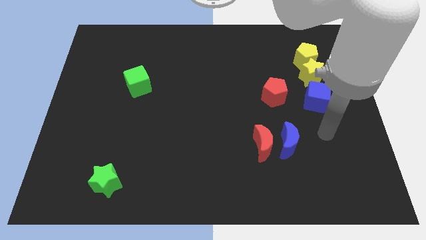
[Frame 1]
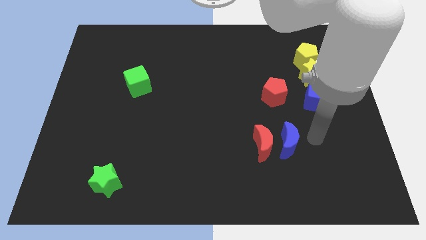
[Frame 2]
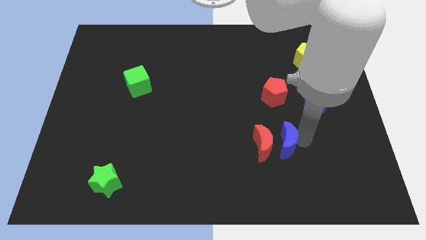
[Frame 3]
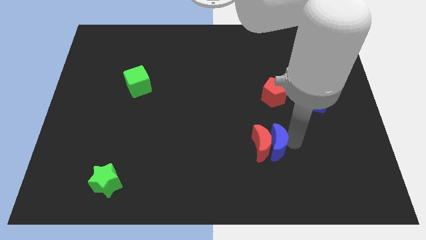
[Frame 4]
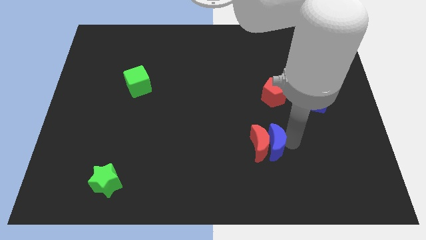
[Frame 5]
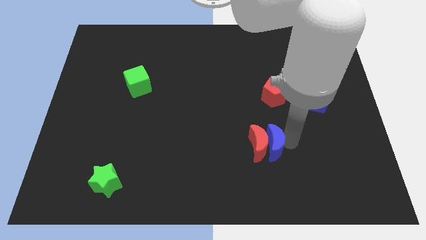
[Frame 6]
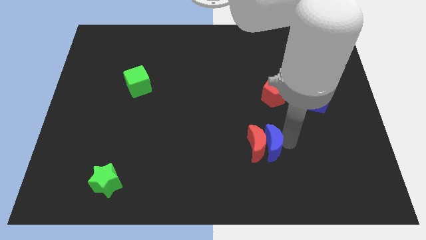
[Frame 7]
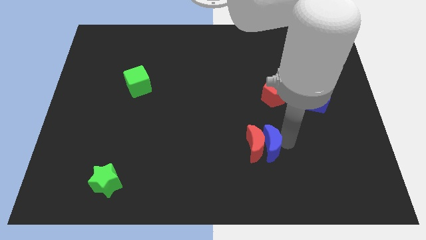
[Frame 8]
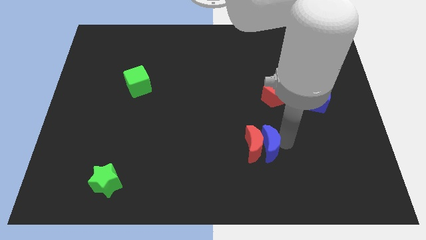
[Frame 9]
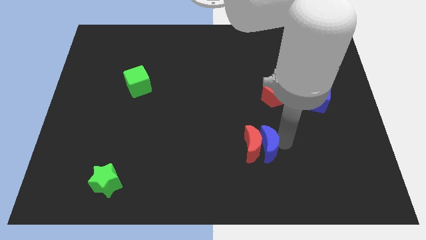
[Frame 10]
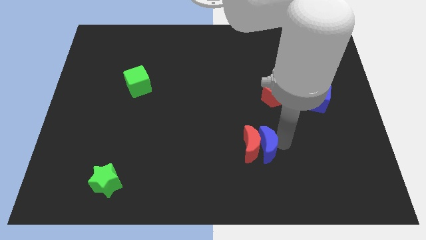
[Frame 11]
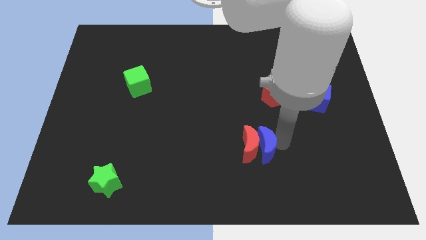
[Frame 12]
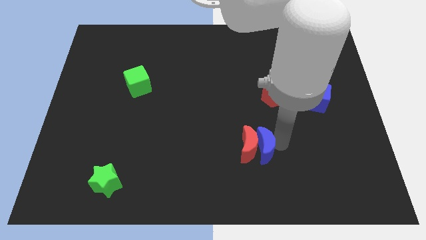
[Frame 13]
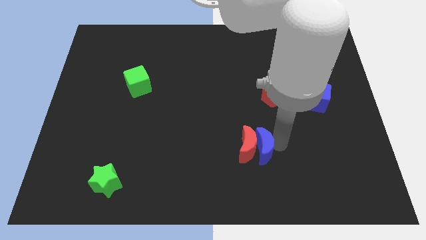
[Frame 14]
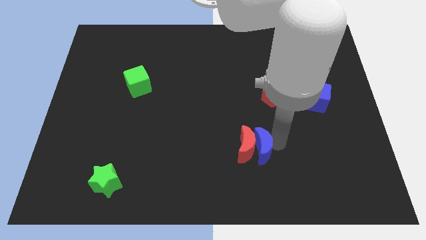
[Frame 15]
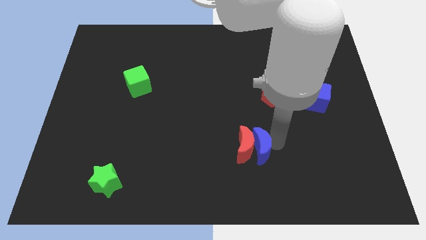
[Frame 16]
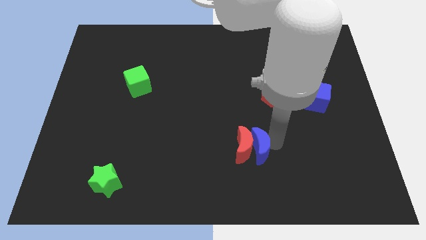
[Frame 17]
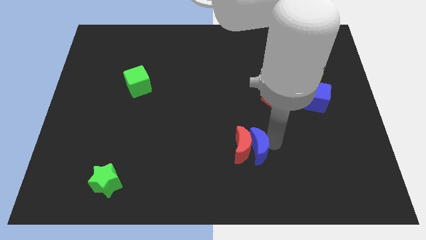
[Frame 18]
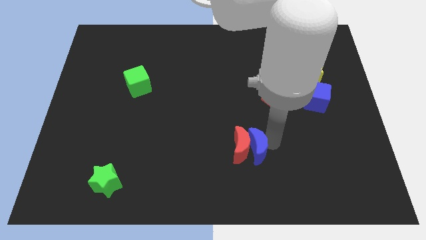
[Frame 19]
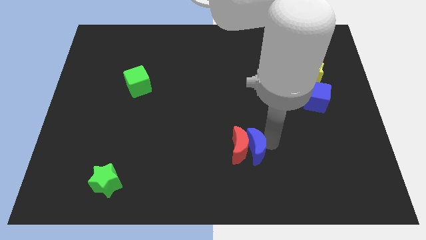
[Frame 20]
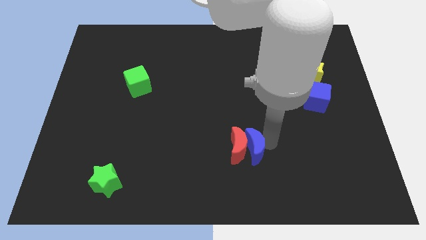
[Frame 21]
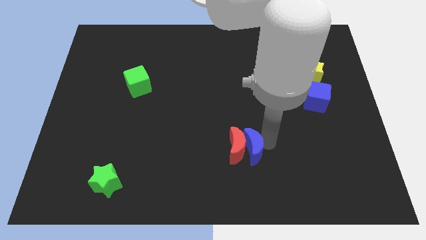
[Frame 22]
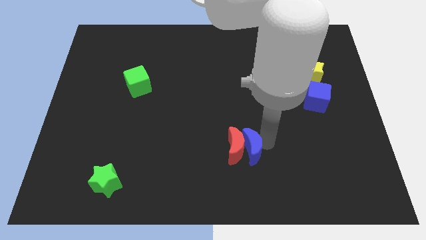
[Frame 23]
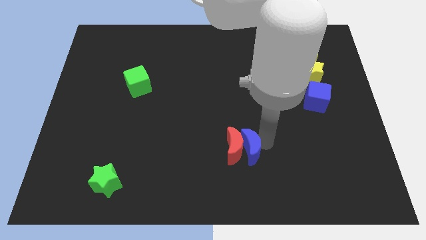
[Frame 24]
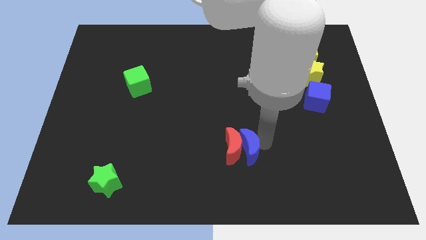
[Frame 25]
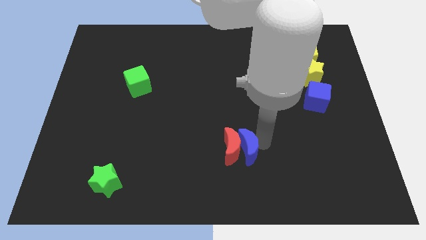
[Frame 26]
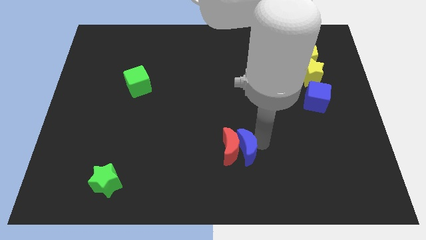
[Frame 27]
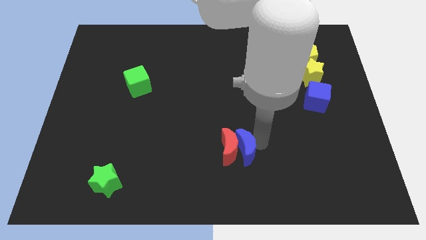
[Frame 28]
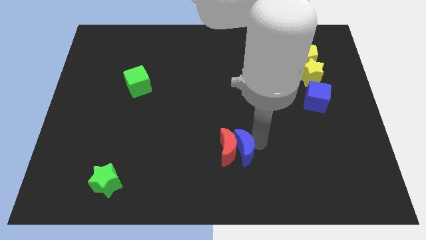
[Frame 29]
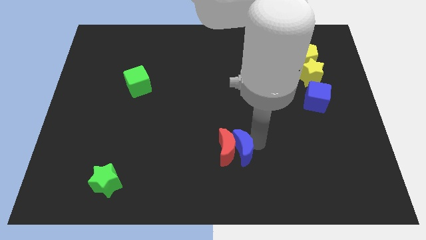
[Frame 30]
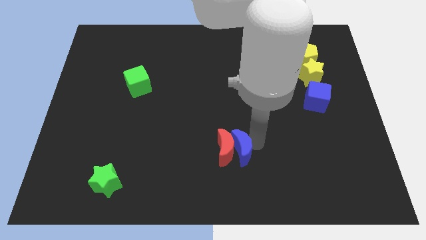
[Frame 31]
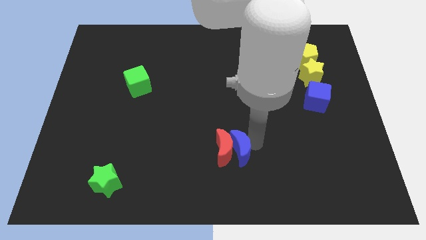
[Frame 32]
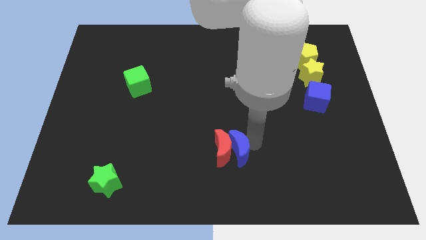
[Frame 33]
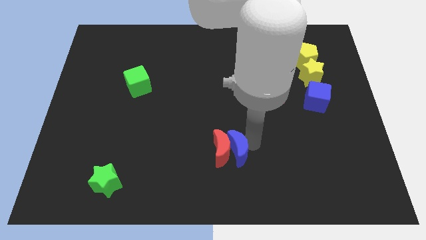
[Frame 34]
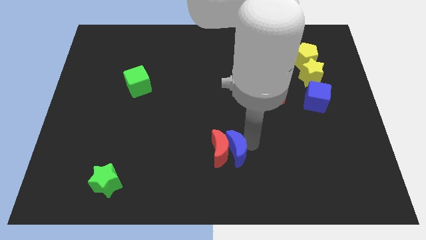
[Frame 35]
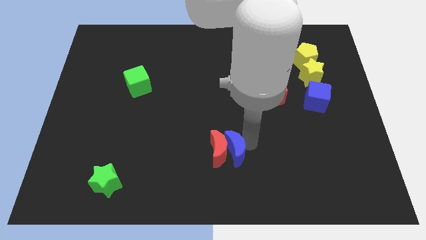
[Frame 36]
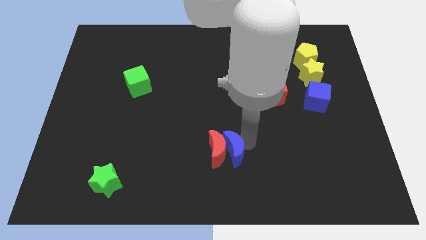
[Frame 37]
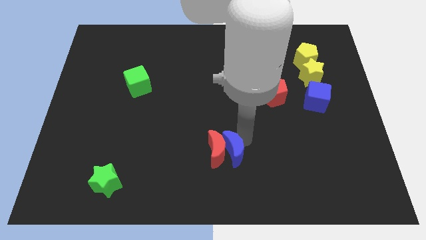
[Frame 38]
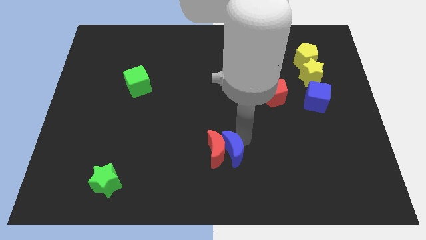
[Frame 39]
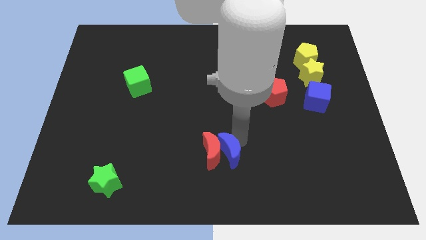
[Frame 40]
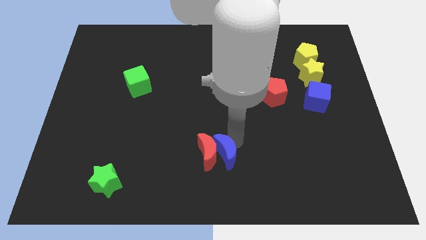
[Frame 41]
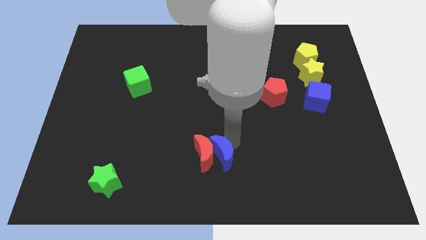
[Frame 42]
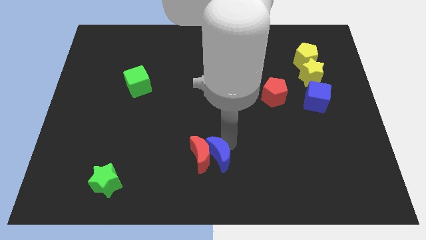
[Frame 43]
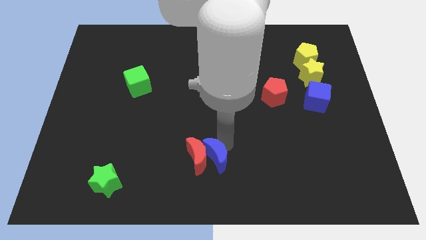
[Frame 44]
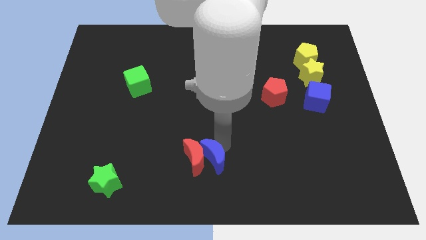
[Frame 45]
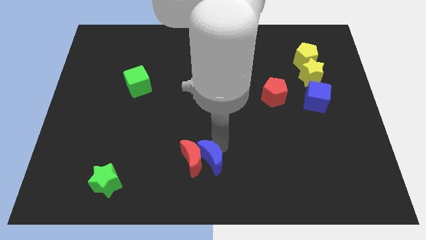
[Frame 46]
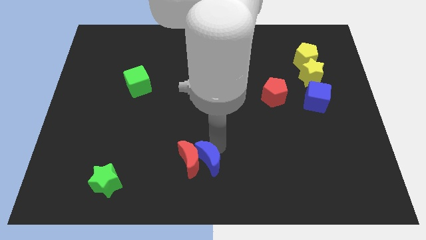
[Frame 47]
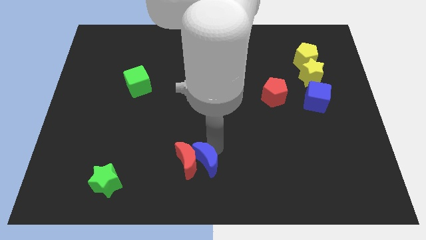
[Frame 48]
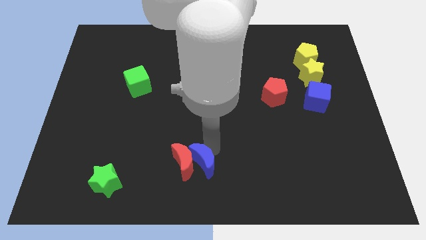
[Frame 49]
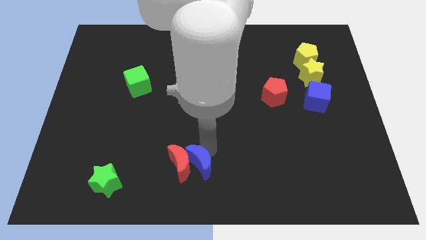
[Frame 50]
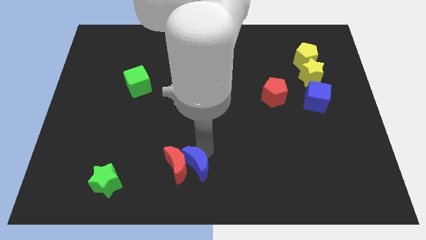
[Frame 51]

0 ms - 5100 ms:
move the red moon right of the green star

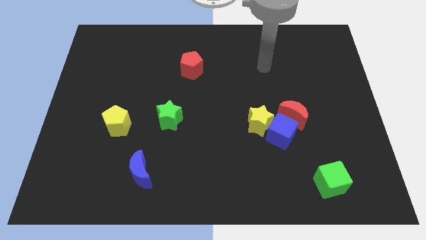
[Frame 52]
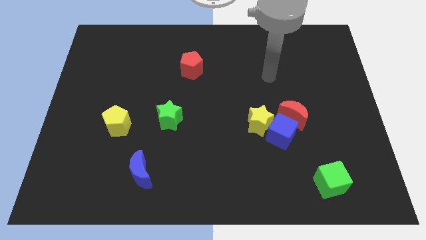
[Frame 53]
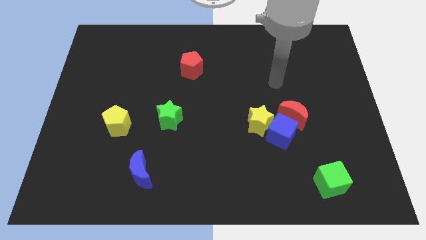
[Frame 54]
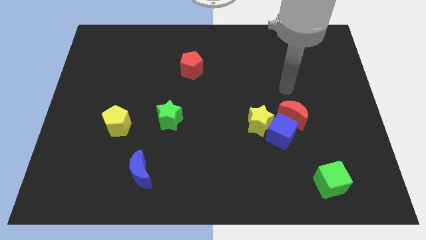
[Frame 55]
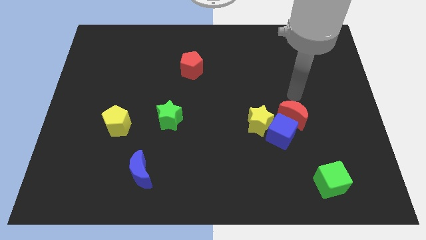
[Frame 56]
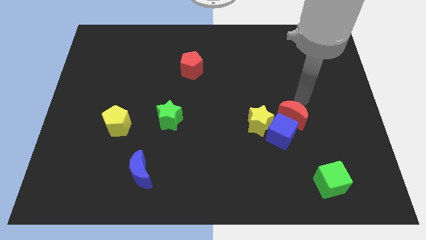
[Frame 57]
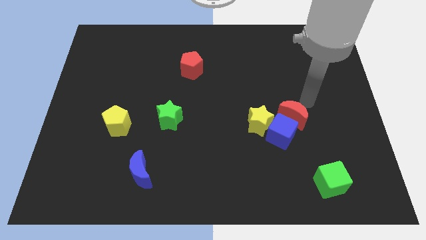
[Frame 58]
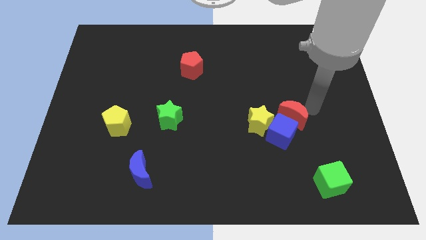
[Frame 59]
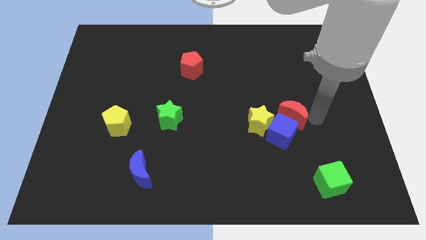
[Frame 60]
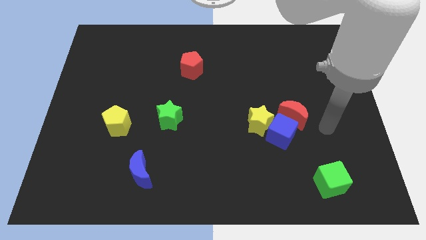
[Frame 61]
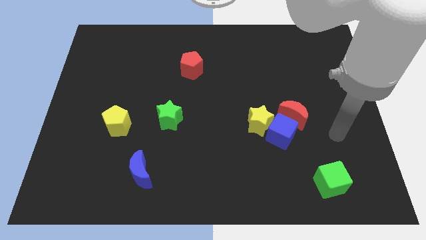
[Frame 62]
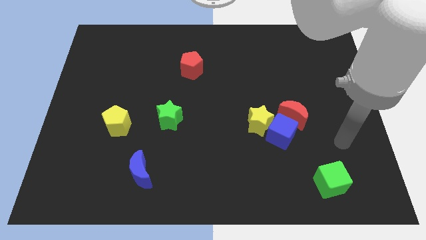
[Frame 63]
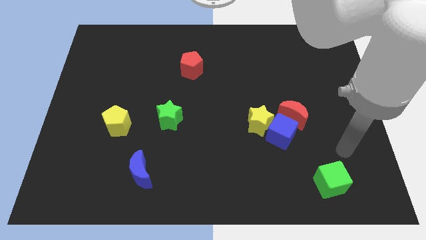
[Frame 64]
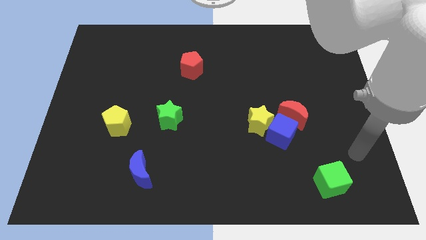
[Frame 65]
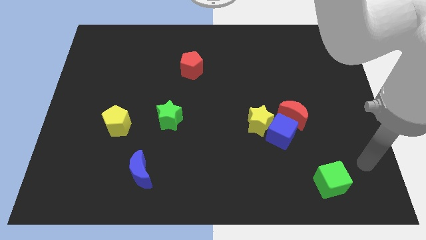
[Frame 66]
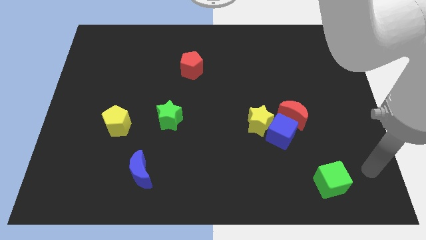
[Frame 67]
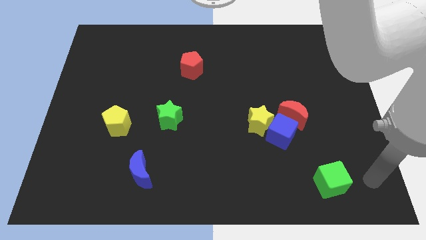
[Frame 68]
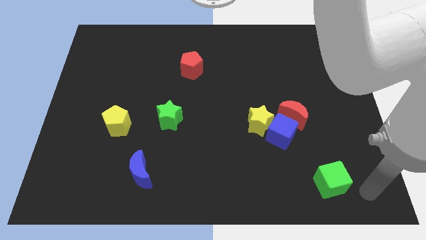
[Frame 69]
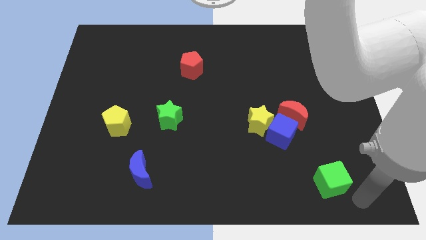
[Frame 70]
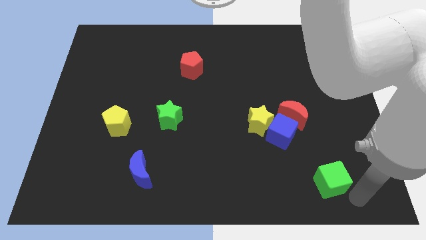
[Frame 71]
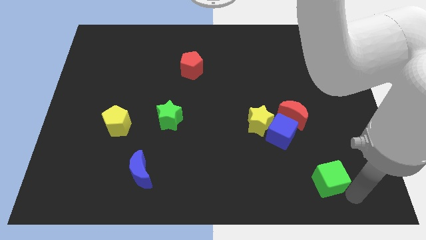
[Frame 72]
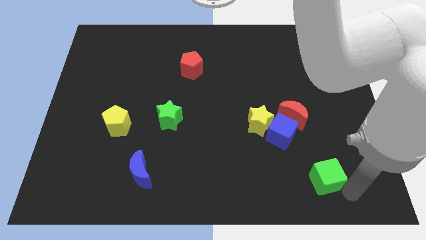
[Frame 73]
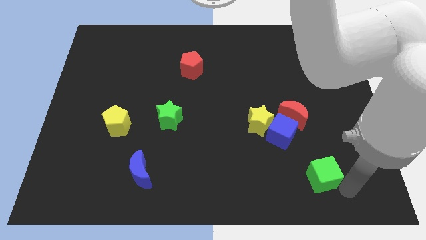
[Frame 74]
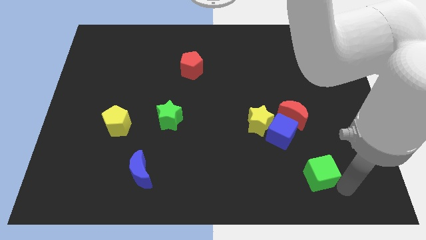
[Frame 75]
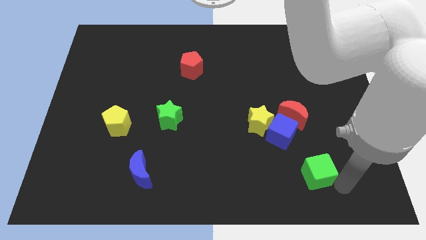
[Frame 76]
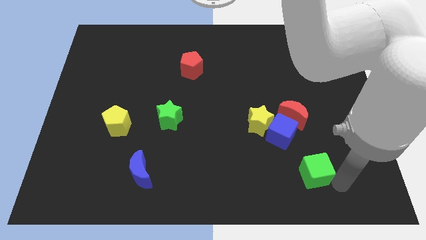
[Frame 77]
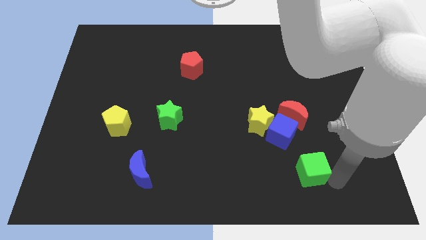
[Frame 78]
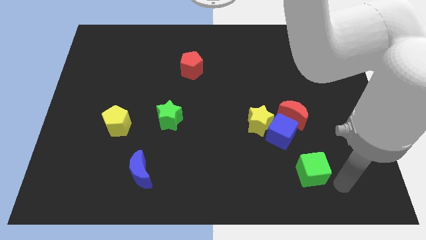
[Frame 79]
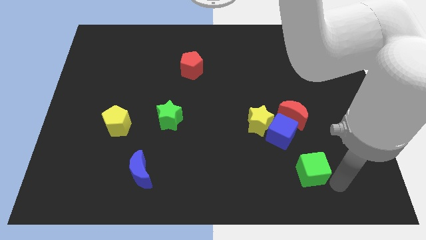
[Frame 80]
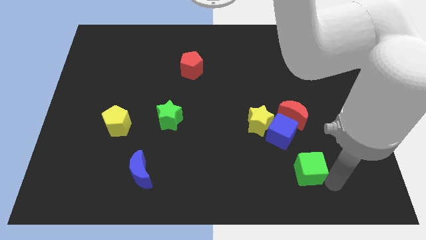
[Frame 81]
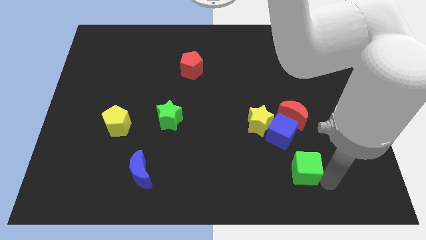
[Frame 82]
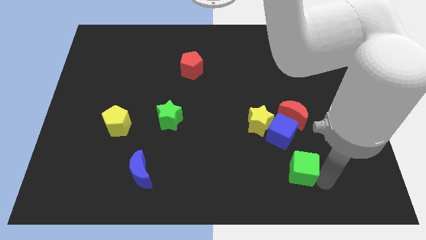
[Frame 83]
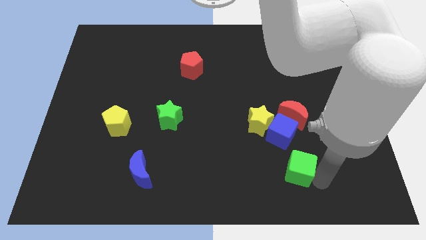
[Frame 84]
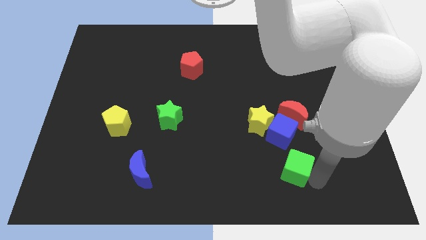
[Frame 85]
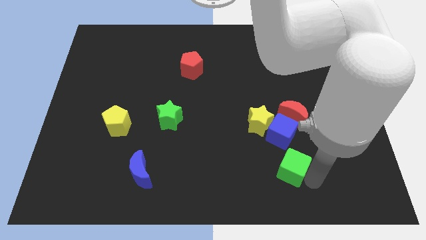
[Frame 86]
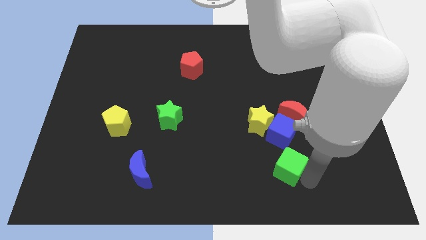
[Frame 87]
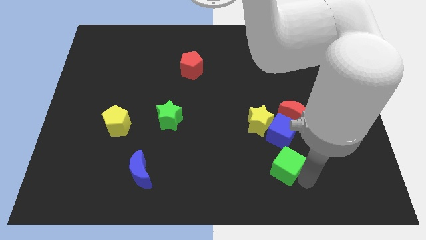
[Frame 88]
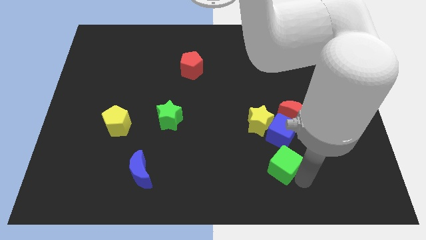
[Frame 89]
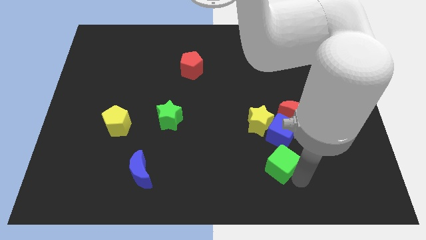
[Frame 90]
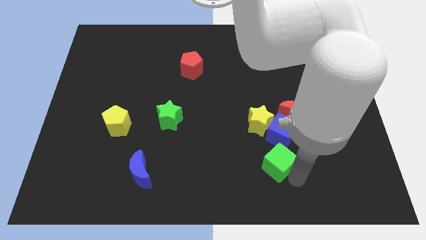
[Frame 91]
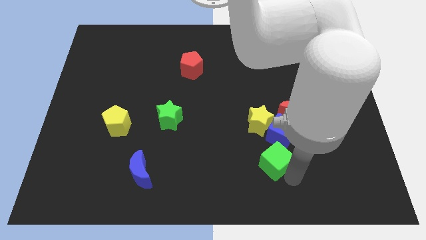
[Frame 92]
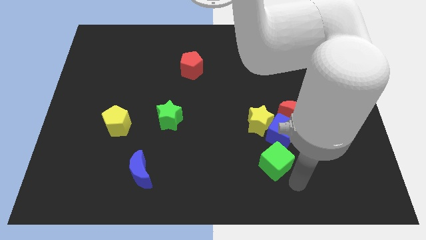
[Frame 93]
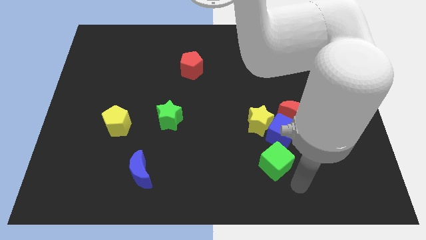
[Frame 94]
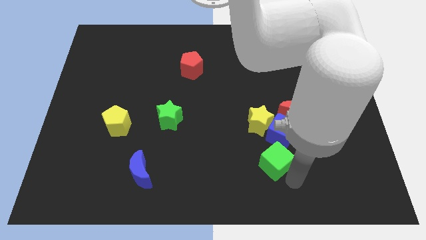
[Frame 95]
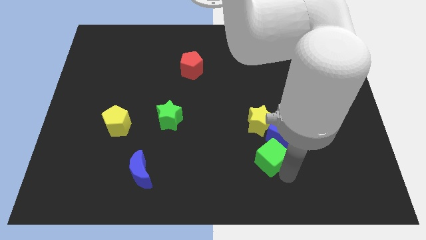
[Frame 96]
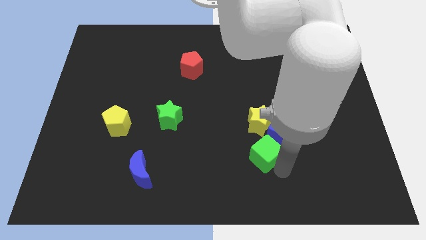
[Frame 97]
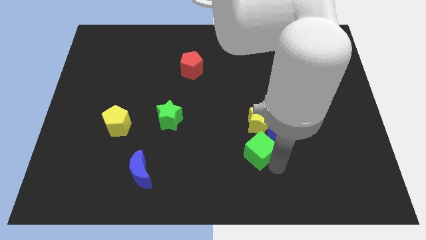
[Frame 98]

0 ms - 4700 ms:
move the green cube to the left side of the blue cube
